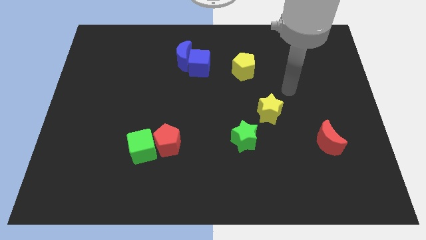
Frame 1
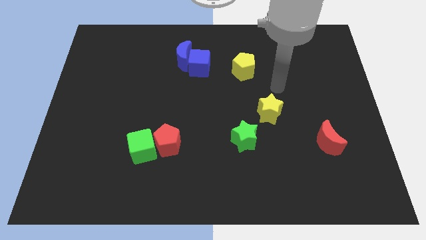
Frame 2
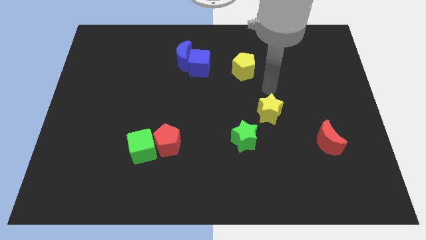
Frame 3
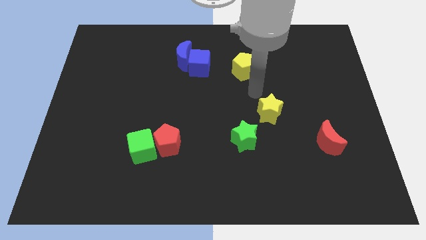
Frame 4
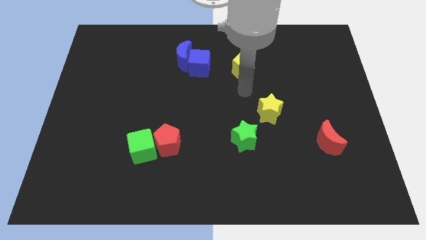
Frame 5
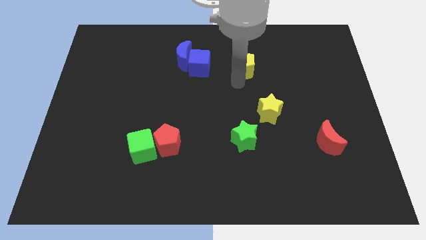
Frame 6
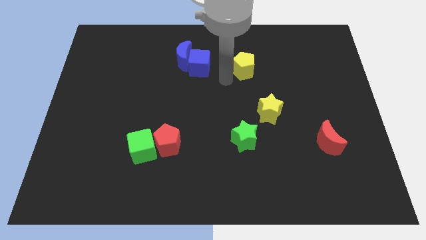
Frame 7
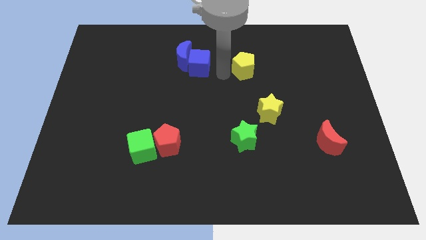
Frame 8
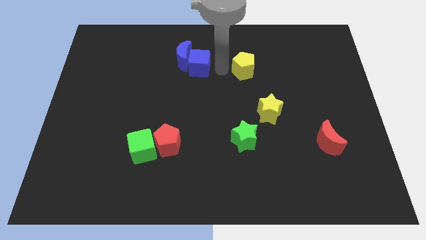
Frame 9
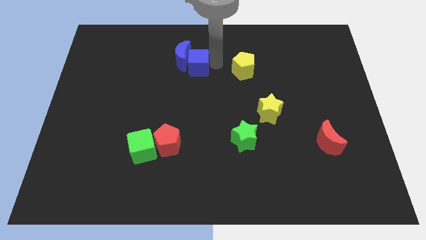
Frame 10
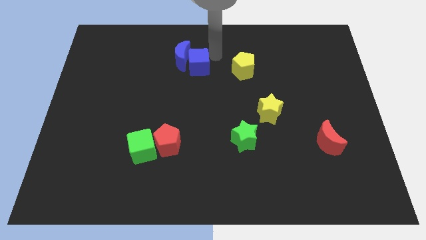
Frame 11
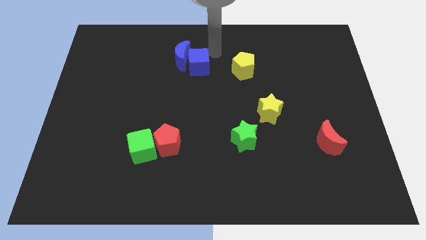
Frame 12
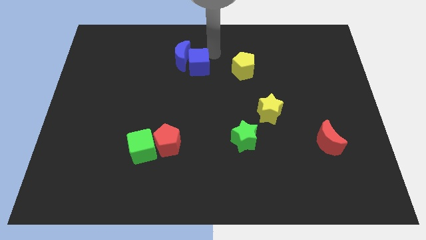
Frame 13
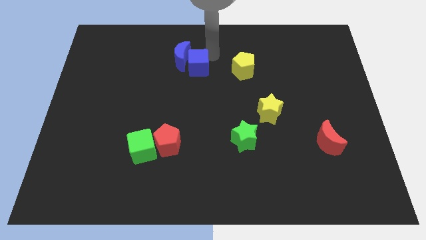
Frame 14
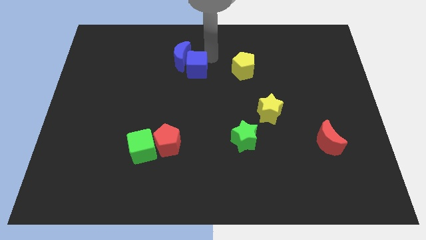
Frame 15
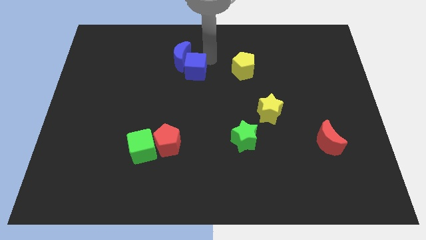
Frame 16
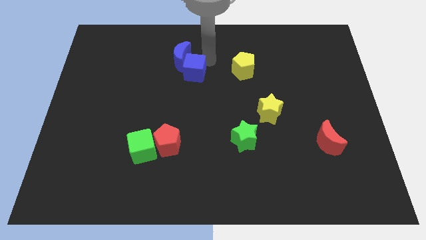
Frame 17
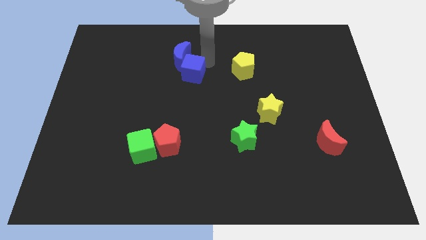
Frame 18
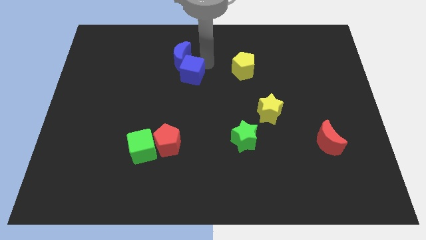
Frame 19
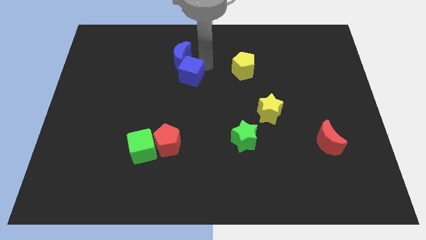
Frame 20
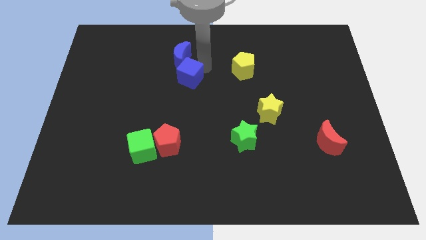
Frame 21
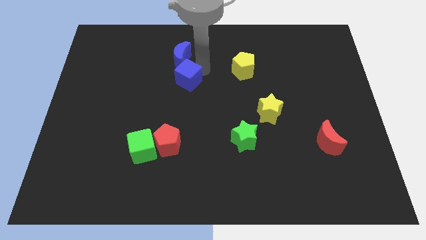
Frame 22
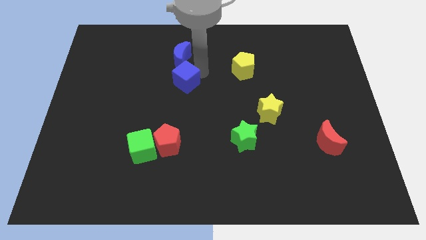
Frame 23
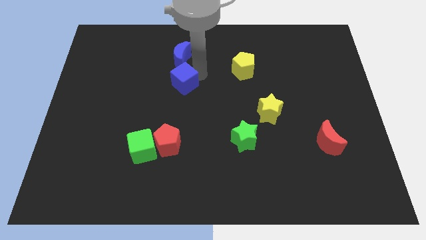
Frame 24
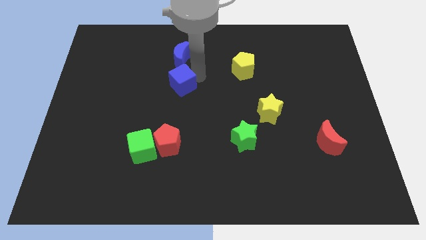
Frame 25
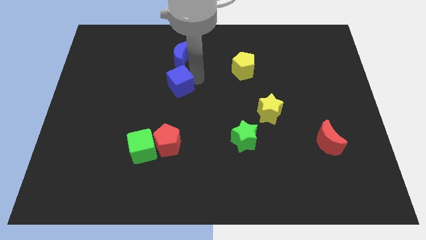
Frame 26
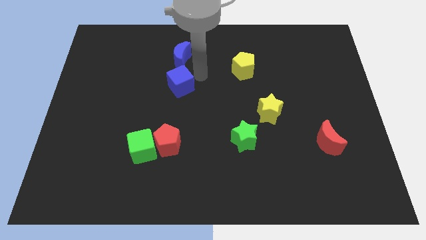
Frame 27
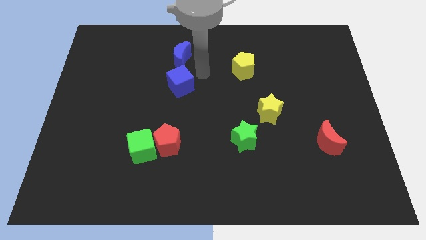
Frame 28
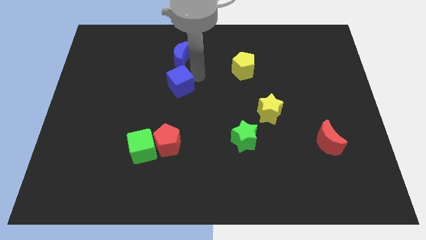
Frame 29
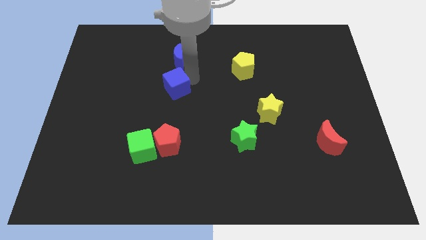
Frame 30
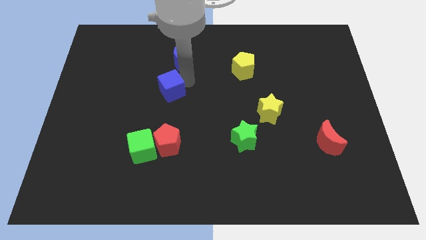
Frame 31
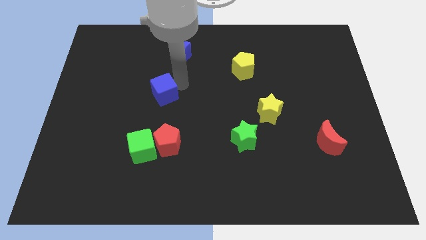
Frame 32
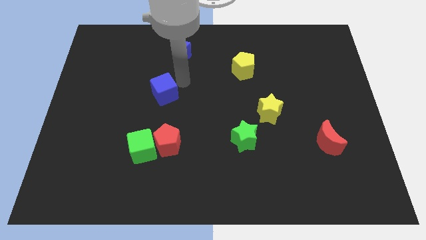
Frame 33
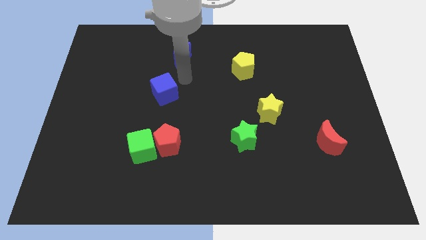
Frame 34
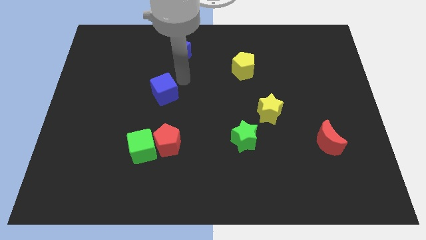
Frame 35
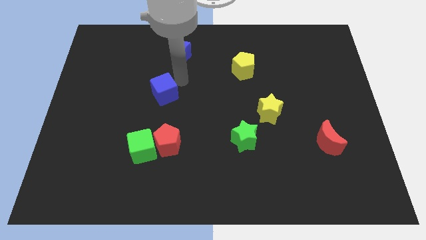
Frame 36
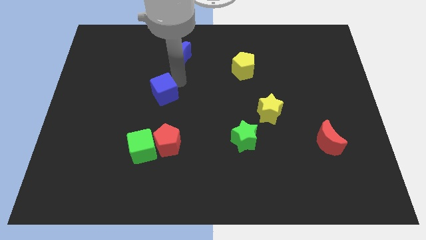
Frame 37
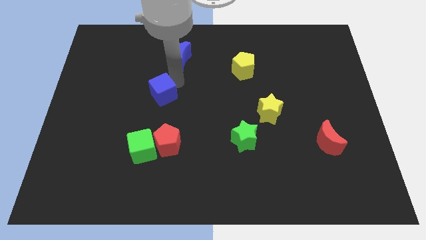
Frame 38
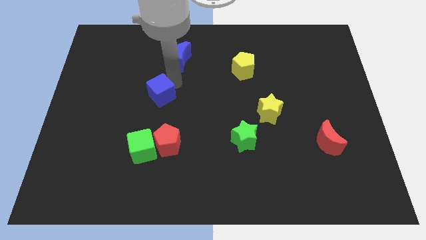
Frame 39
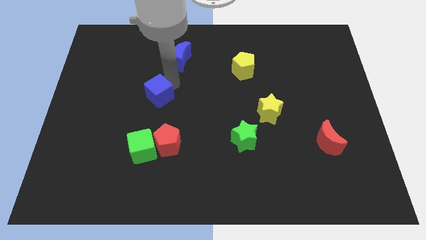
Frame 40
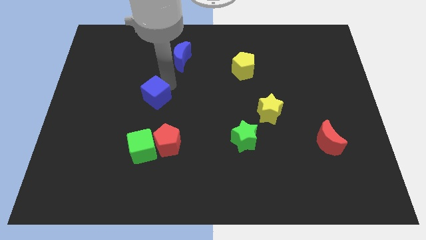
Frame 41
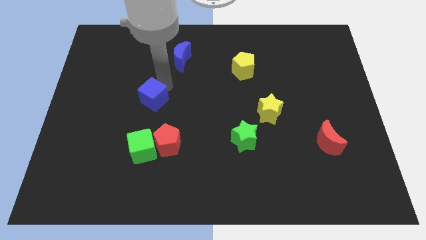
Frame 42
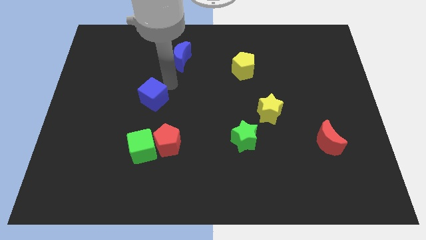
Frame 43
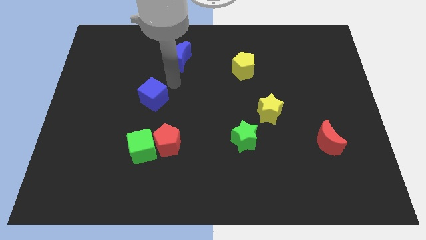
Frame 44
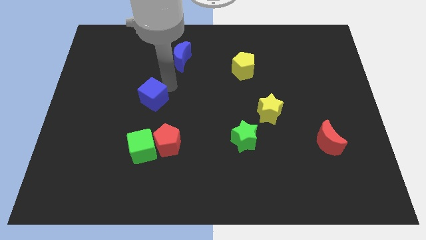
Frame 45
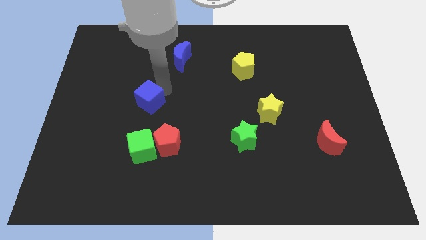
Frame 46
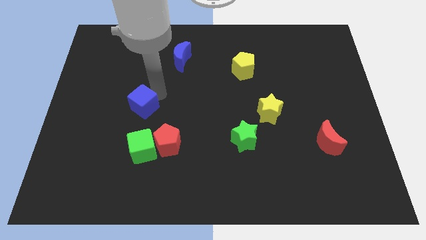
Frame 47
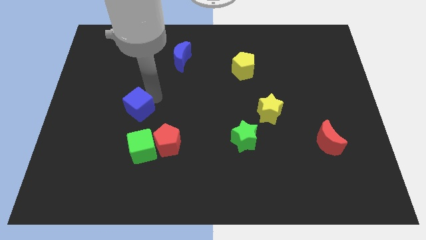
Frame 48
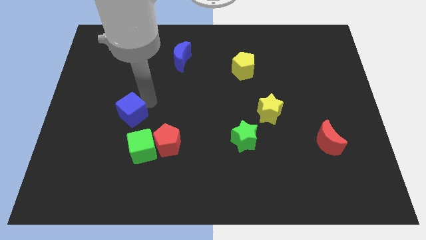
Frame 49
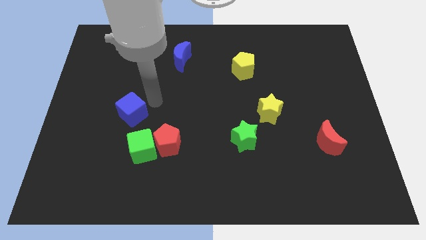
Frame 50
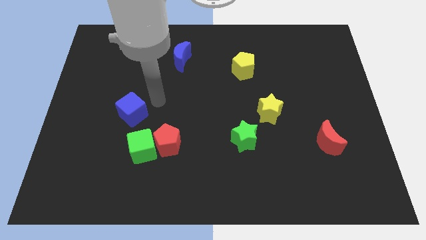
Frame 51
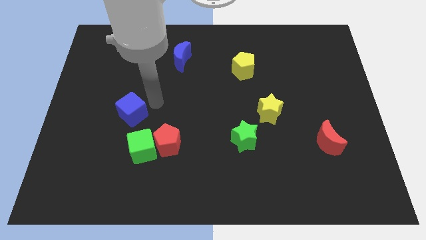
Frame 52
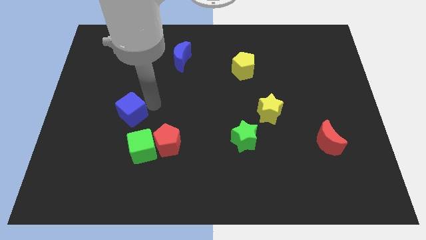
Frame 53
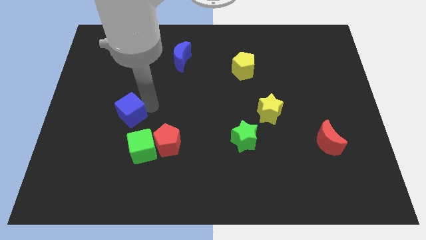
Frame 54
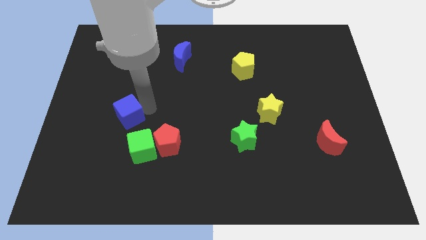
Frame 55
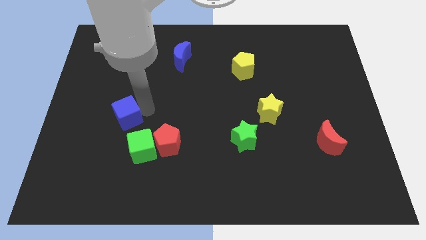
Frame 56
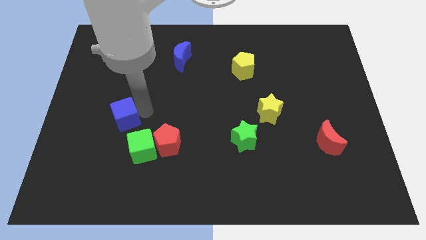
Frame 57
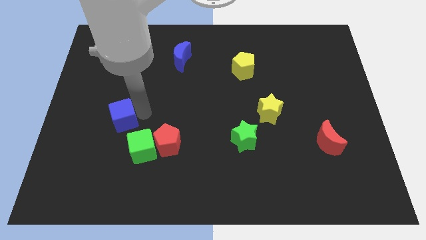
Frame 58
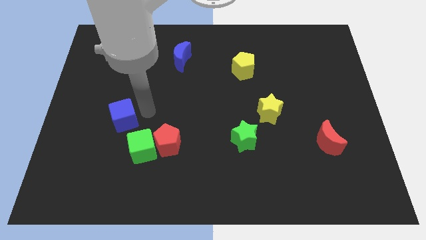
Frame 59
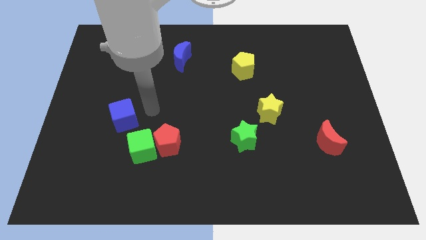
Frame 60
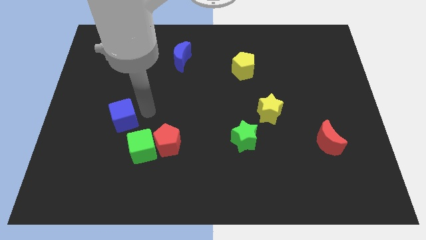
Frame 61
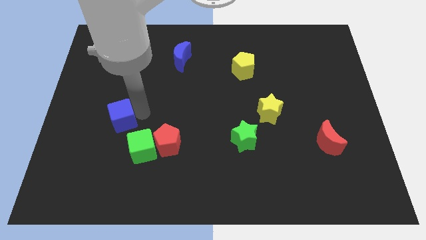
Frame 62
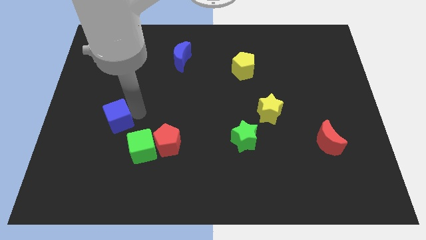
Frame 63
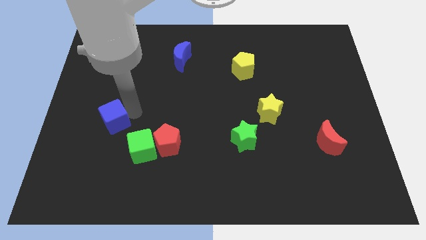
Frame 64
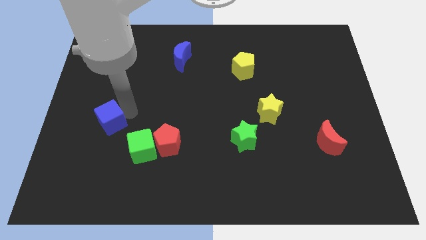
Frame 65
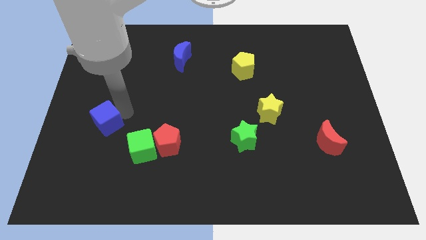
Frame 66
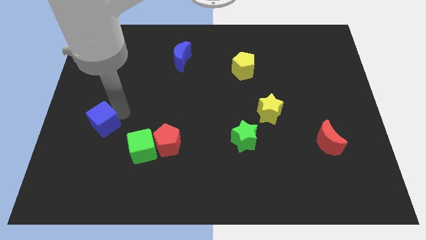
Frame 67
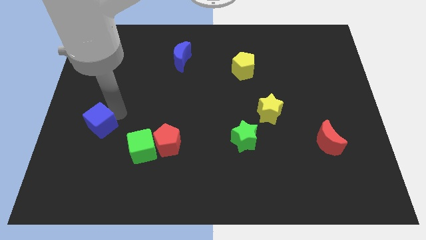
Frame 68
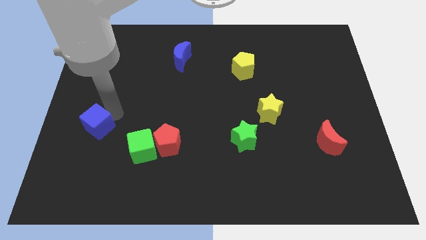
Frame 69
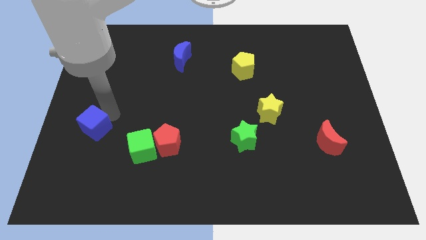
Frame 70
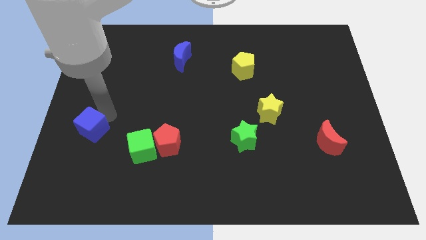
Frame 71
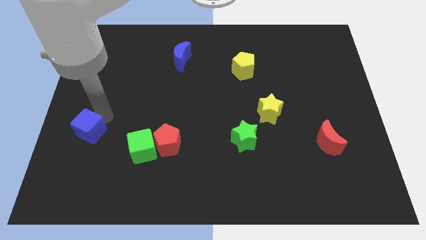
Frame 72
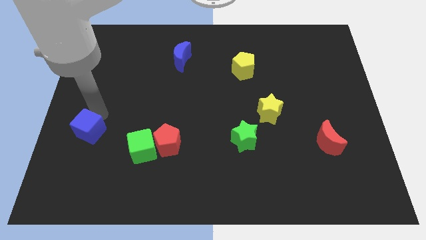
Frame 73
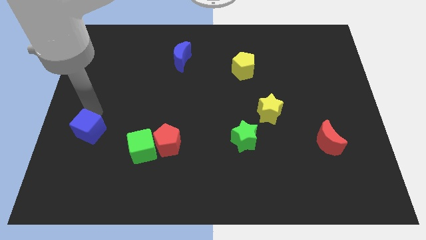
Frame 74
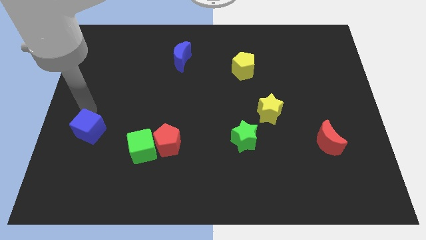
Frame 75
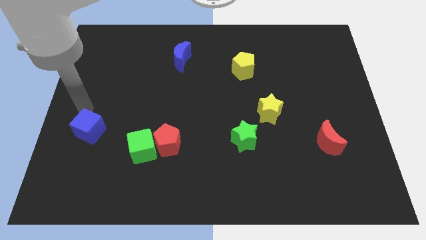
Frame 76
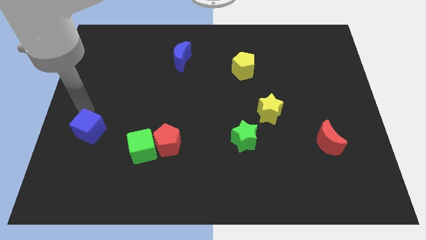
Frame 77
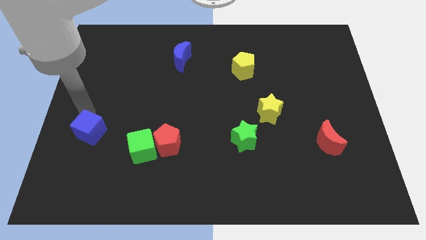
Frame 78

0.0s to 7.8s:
push the blue cube to the left side of the green cube

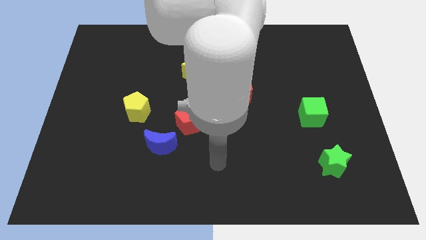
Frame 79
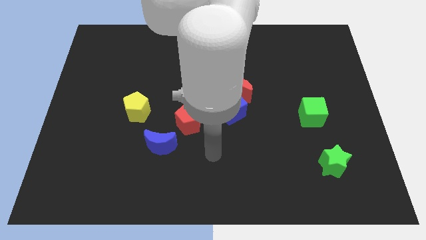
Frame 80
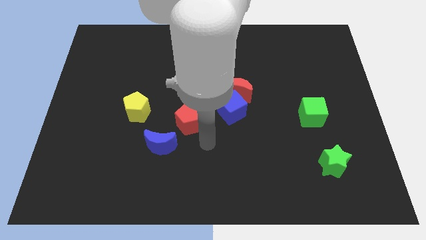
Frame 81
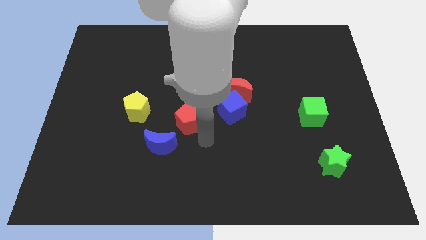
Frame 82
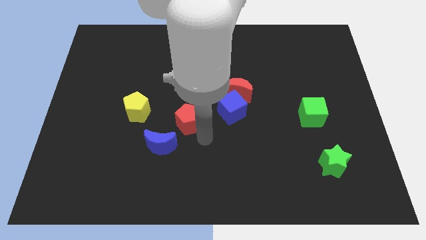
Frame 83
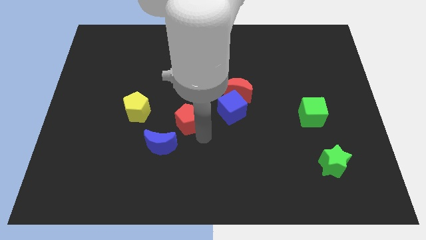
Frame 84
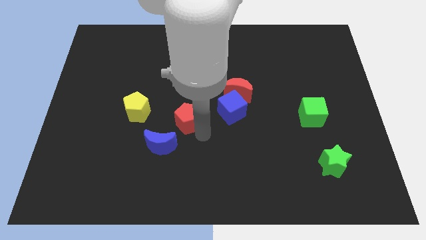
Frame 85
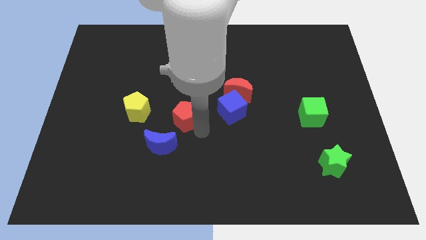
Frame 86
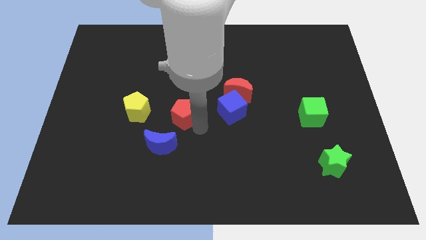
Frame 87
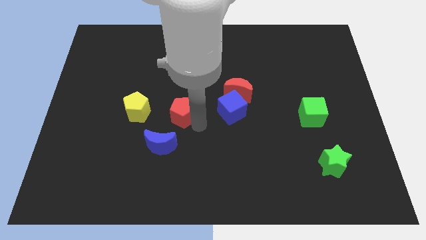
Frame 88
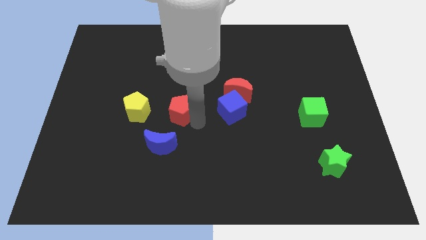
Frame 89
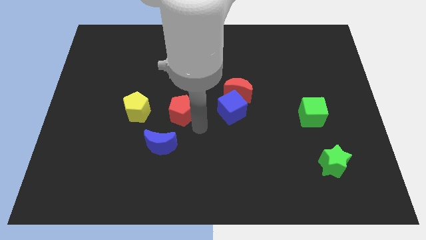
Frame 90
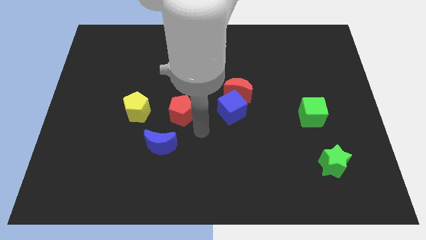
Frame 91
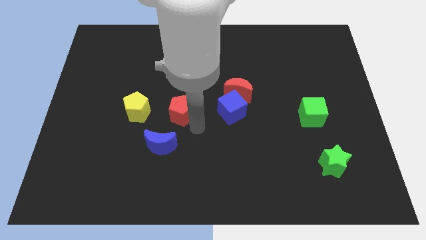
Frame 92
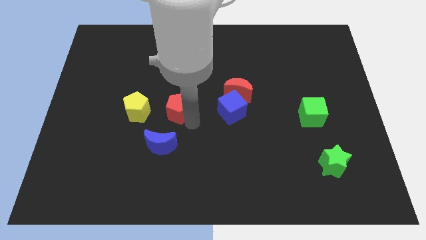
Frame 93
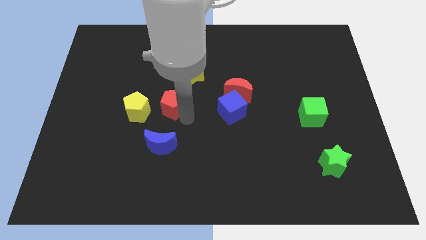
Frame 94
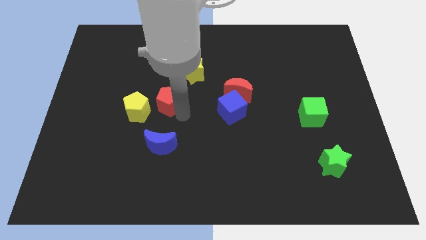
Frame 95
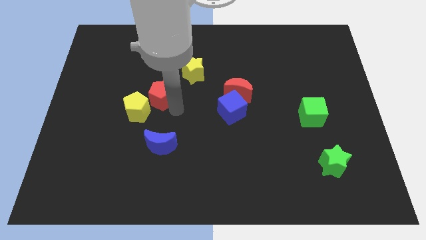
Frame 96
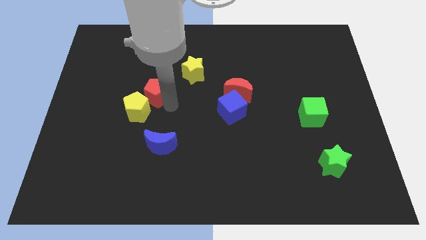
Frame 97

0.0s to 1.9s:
put the red pentagon to the top of the yellow pentagon
